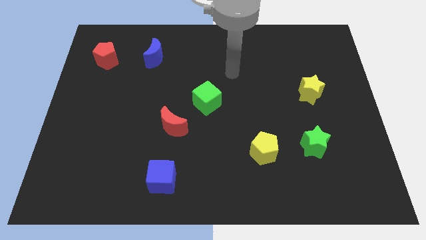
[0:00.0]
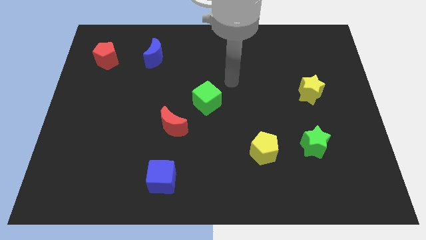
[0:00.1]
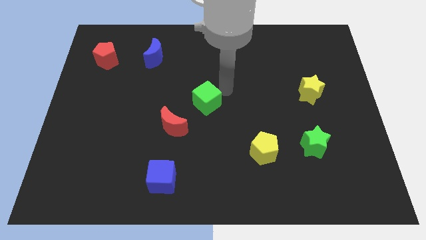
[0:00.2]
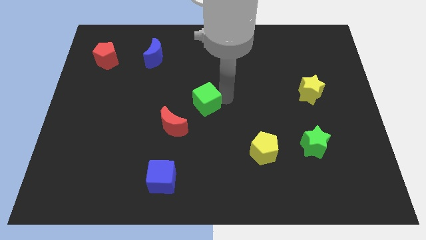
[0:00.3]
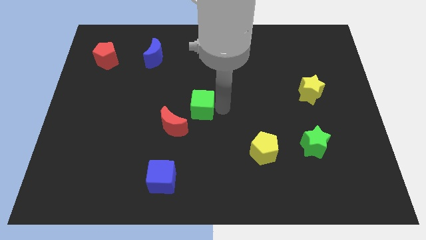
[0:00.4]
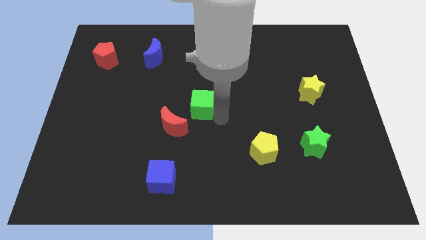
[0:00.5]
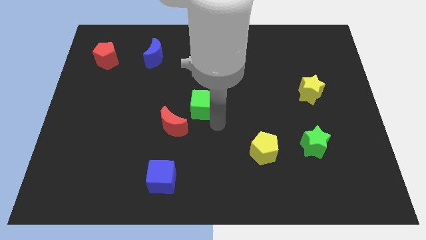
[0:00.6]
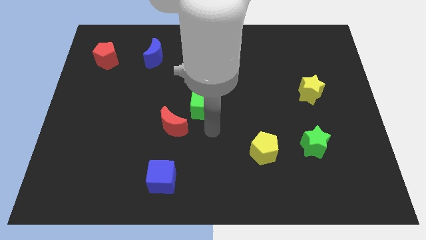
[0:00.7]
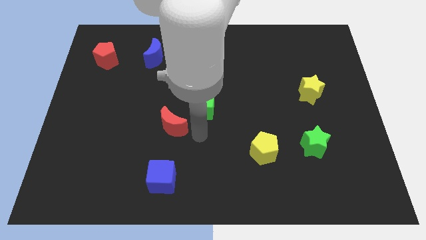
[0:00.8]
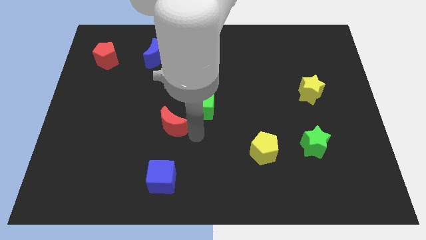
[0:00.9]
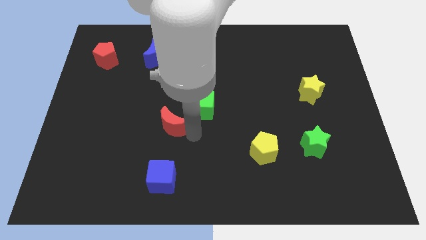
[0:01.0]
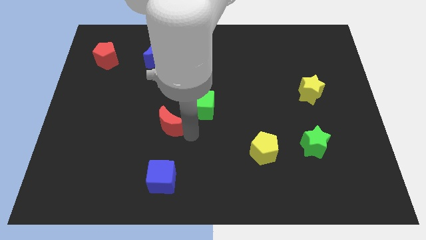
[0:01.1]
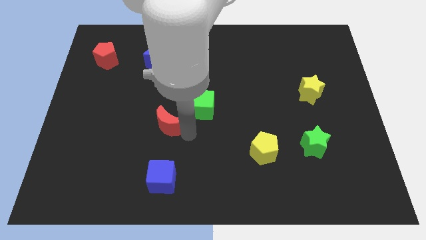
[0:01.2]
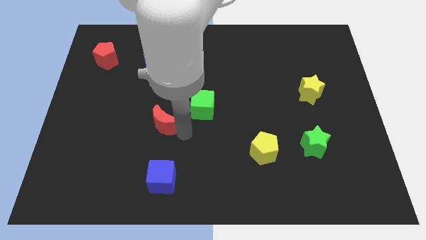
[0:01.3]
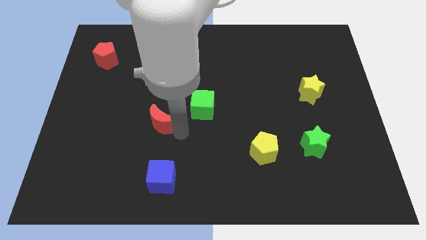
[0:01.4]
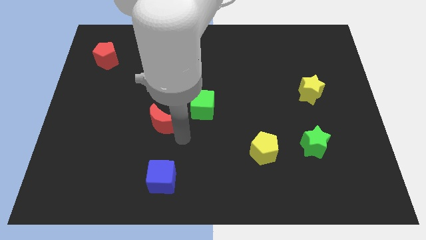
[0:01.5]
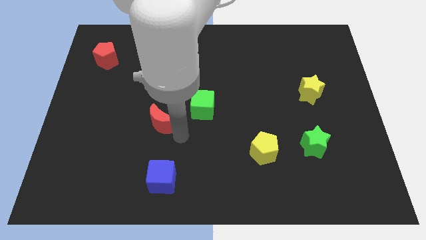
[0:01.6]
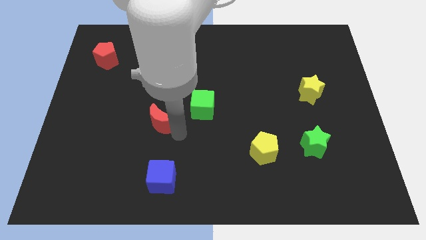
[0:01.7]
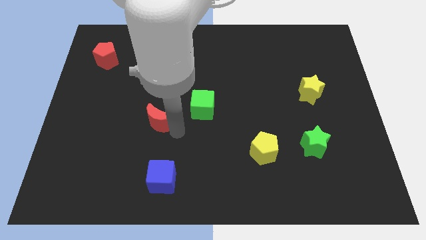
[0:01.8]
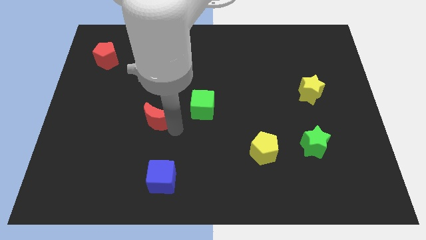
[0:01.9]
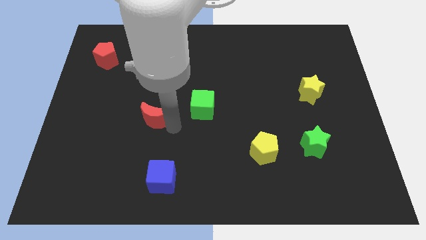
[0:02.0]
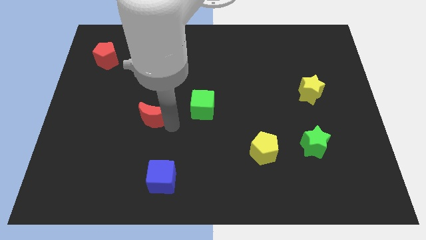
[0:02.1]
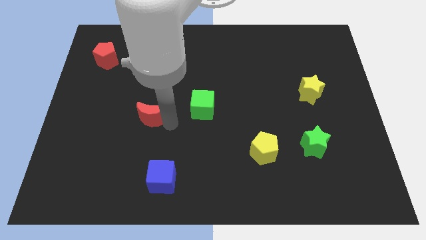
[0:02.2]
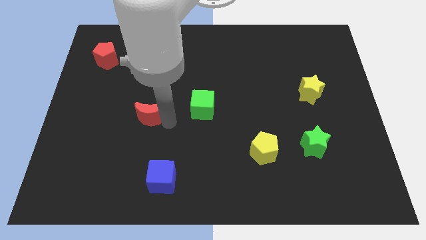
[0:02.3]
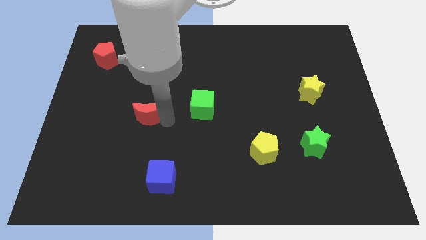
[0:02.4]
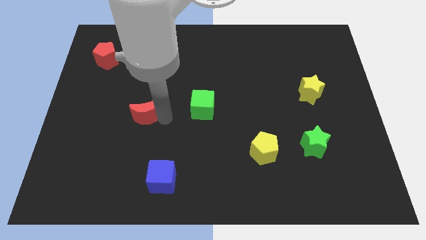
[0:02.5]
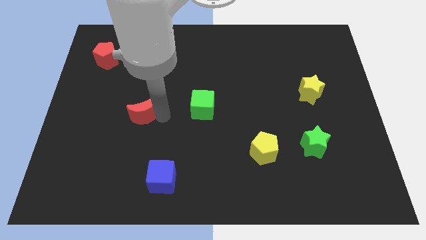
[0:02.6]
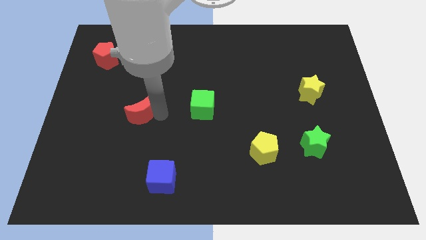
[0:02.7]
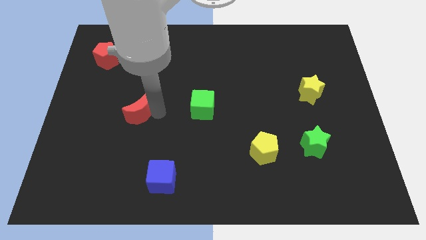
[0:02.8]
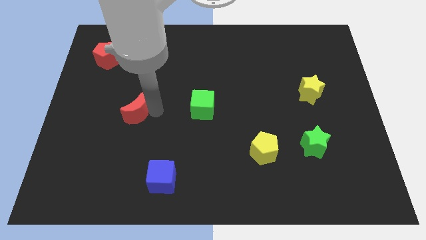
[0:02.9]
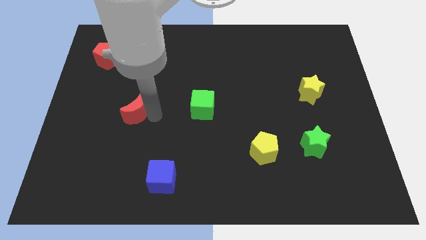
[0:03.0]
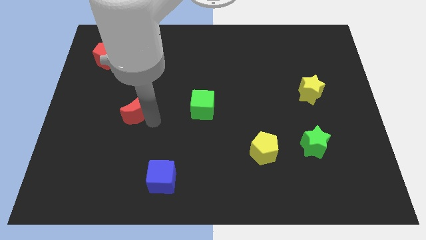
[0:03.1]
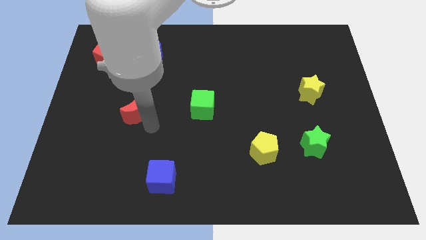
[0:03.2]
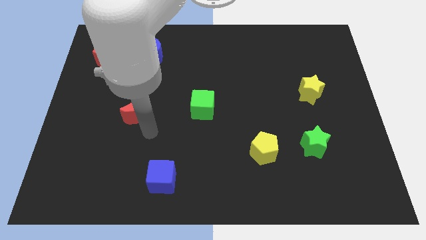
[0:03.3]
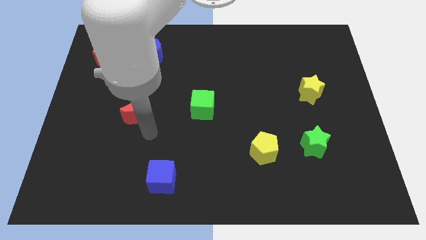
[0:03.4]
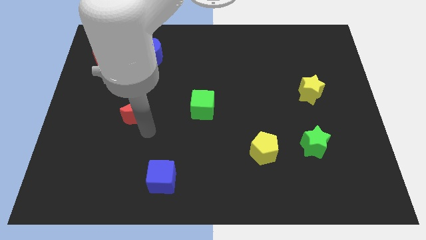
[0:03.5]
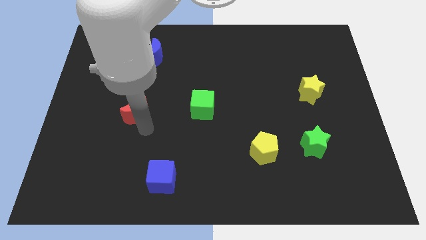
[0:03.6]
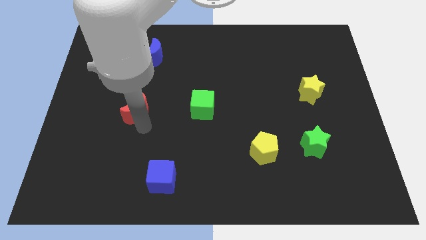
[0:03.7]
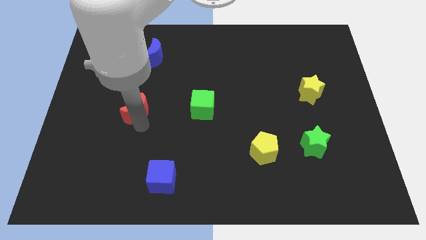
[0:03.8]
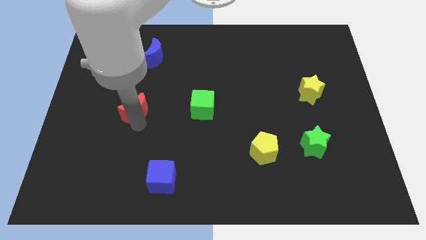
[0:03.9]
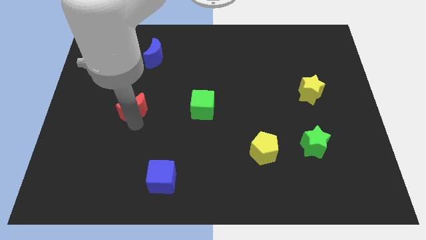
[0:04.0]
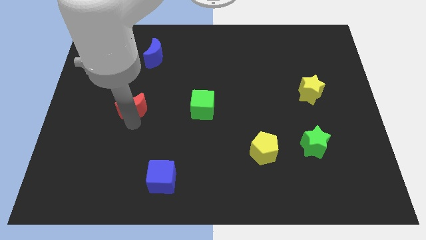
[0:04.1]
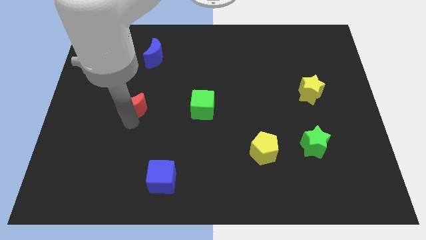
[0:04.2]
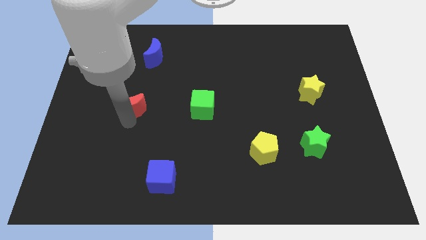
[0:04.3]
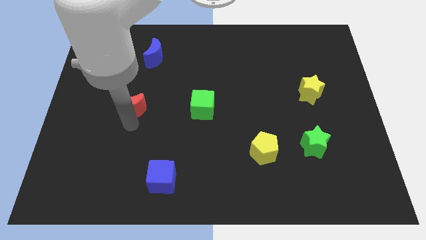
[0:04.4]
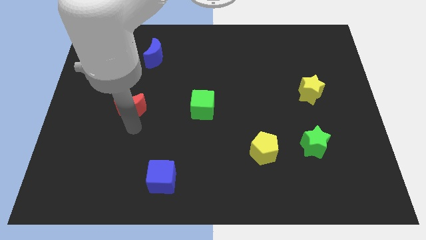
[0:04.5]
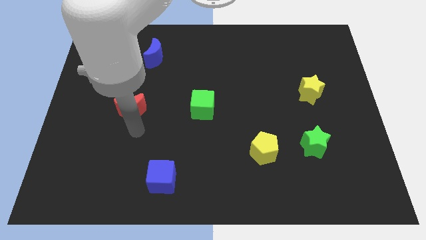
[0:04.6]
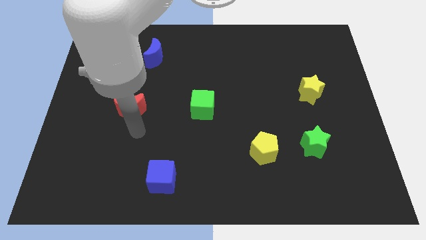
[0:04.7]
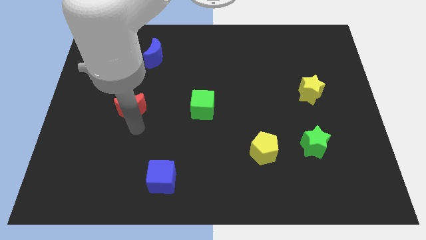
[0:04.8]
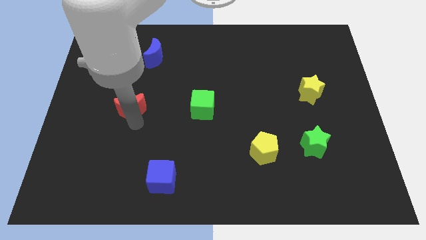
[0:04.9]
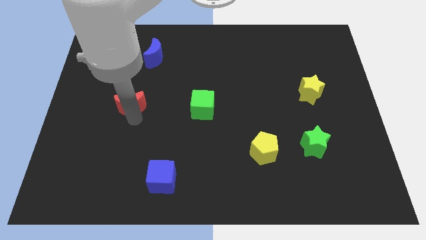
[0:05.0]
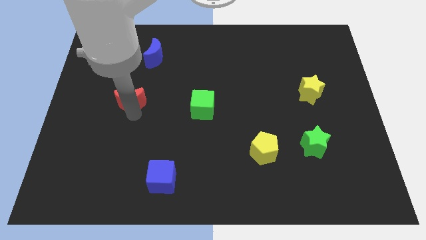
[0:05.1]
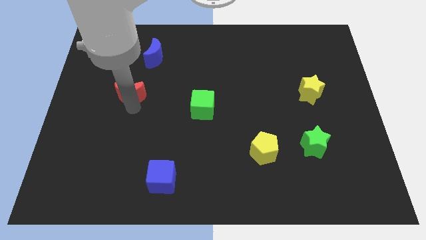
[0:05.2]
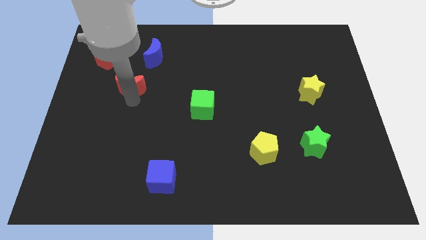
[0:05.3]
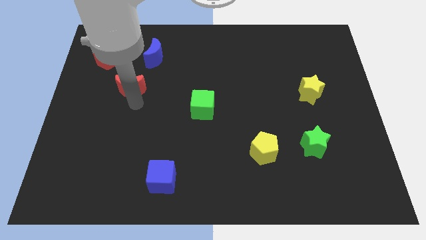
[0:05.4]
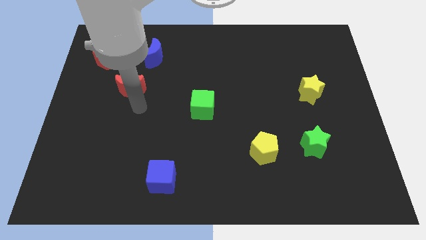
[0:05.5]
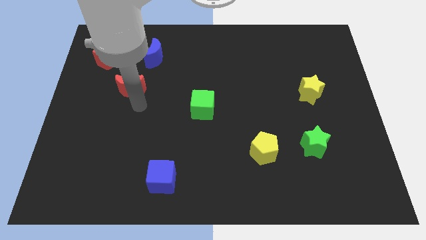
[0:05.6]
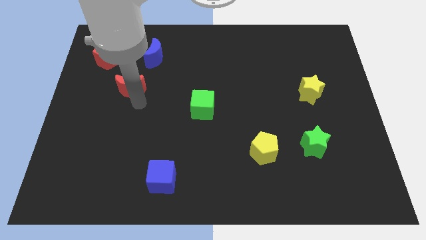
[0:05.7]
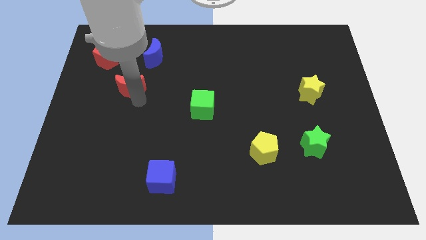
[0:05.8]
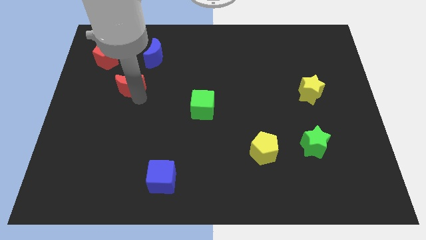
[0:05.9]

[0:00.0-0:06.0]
slide the red moon to the bottom right of the red pentagon

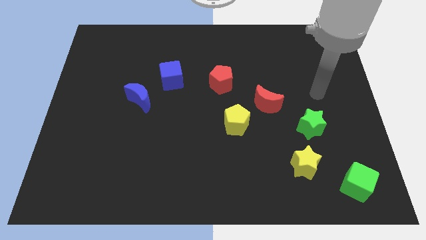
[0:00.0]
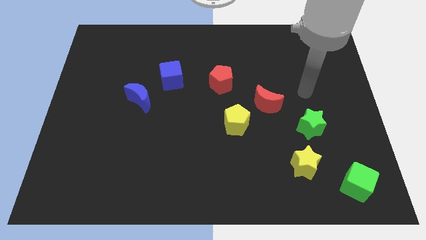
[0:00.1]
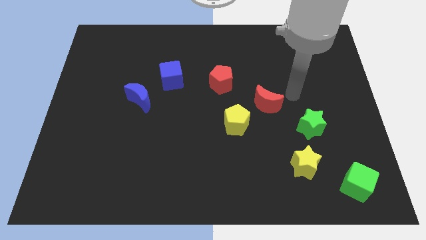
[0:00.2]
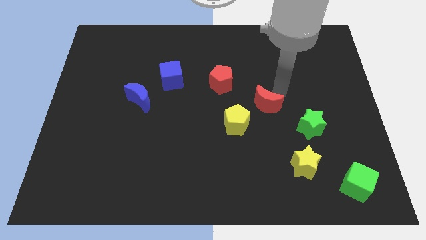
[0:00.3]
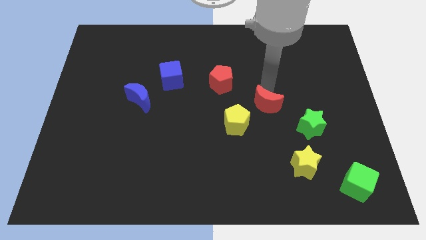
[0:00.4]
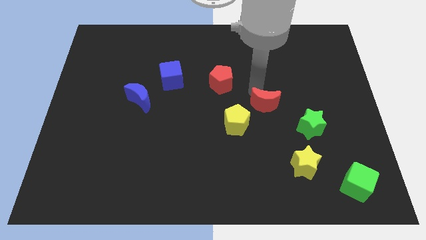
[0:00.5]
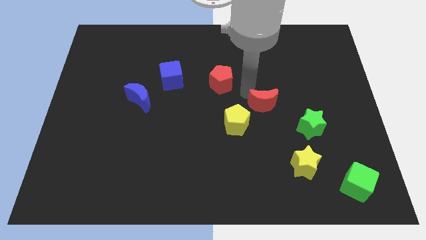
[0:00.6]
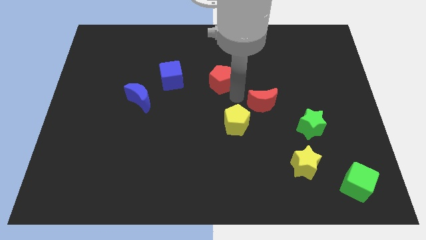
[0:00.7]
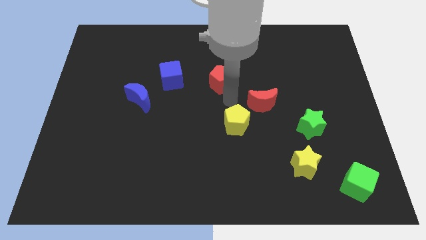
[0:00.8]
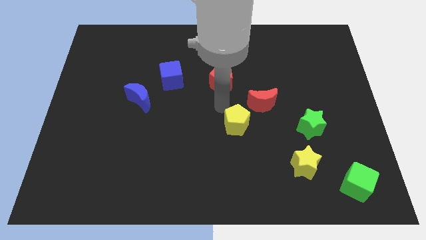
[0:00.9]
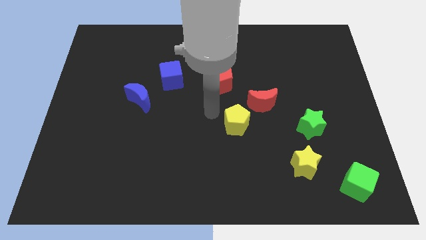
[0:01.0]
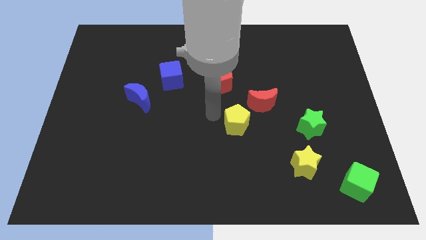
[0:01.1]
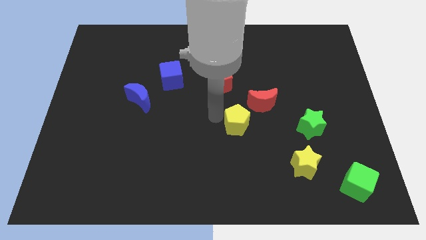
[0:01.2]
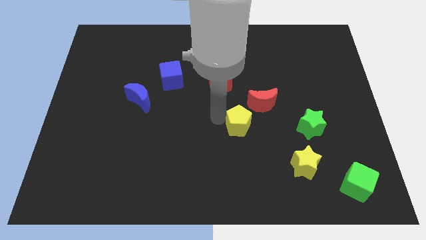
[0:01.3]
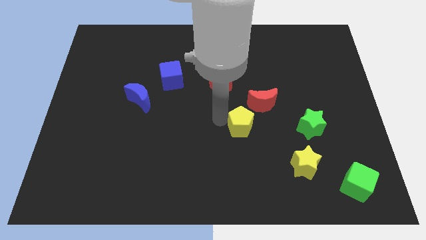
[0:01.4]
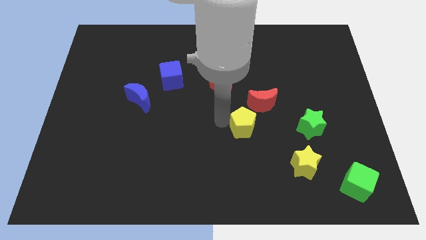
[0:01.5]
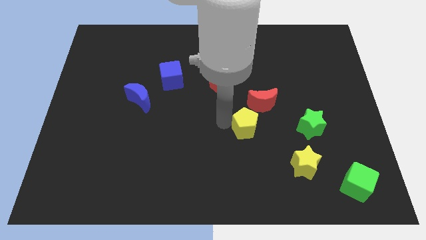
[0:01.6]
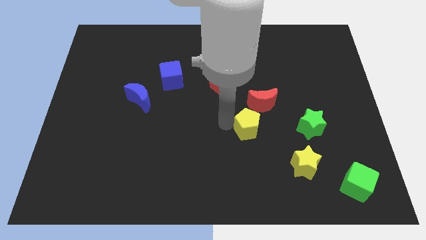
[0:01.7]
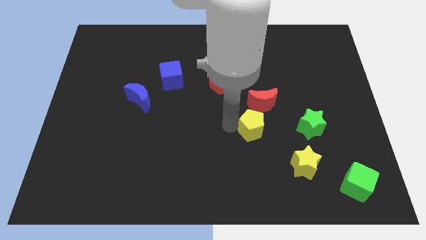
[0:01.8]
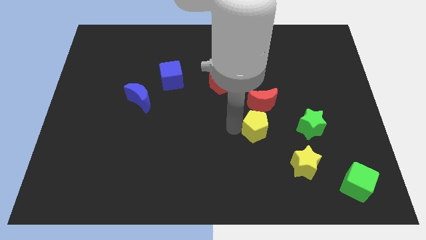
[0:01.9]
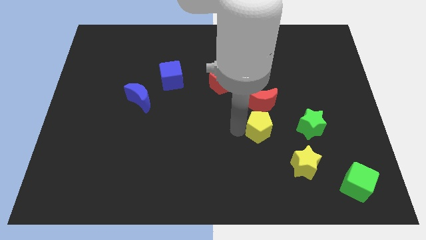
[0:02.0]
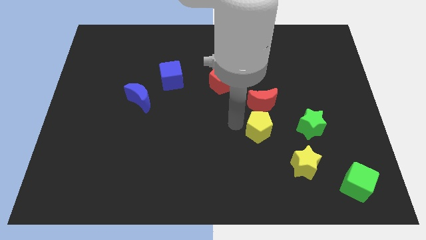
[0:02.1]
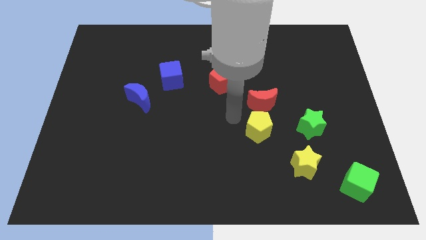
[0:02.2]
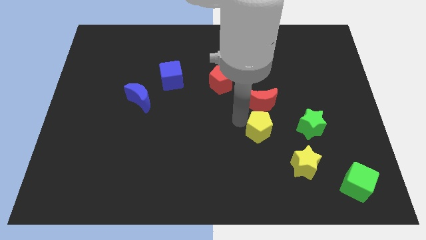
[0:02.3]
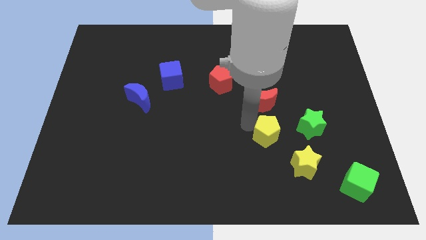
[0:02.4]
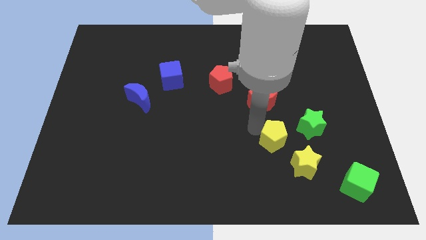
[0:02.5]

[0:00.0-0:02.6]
push the yellow pentagon to the bottom left of the green star
